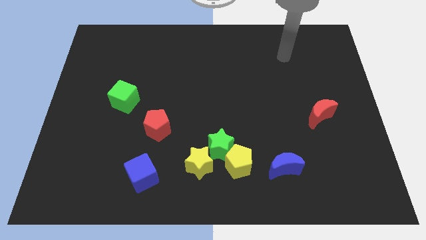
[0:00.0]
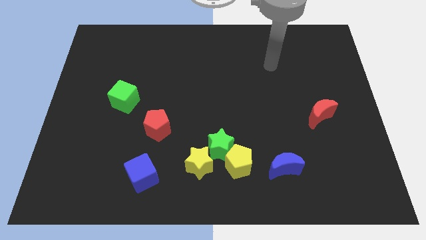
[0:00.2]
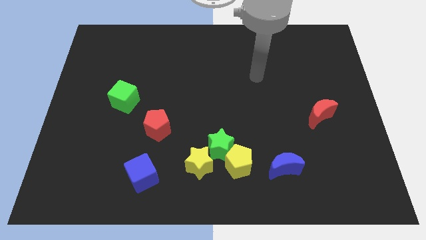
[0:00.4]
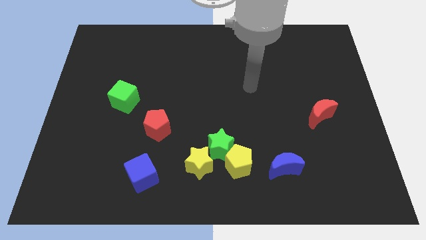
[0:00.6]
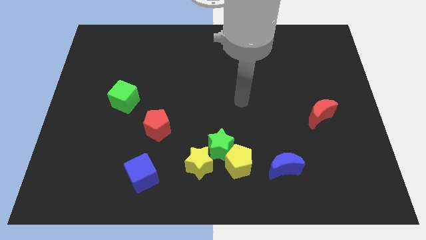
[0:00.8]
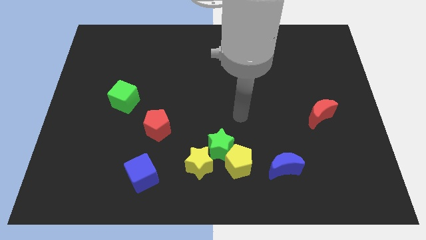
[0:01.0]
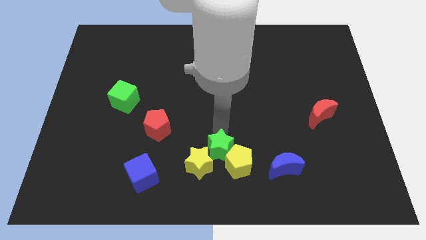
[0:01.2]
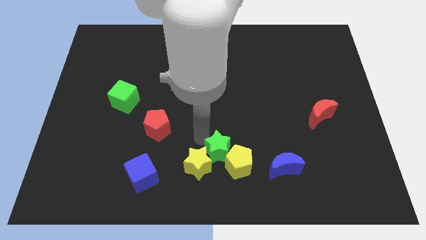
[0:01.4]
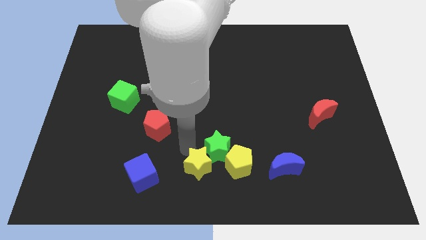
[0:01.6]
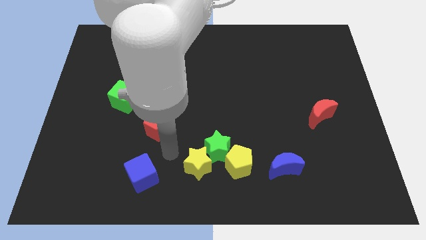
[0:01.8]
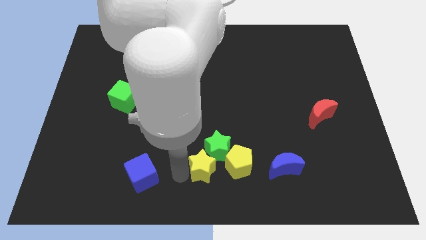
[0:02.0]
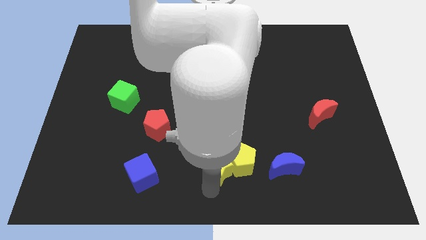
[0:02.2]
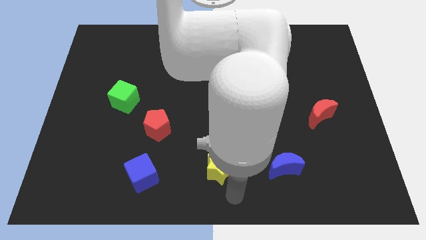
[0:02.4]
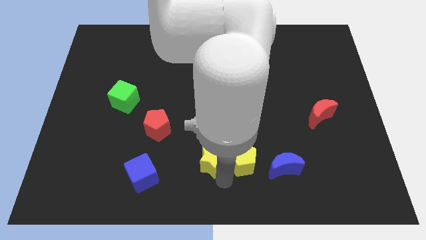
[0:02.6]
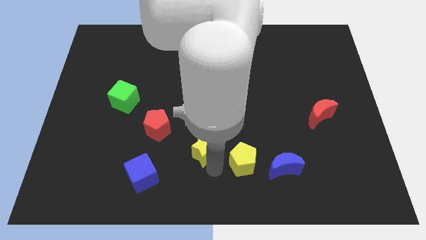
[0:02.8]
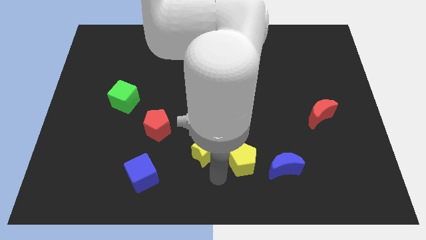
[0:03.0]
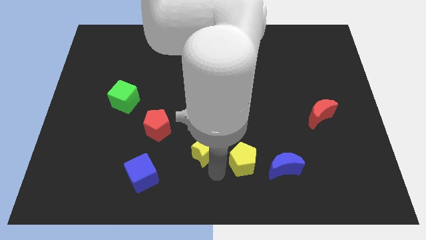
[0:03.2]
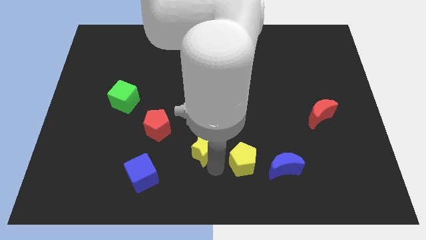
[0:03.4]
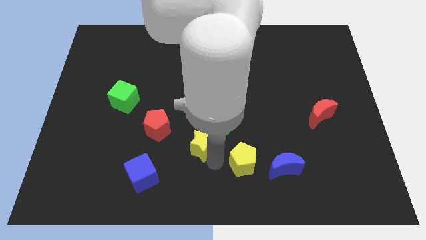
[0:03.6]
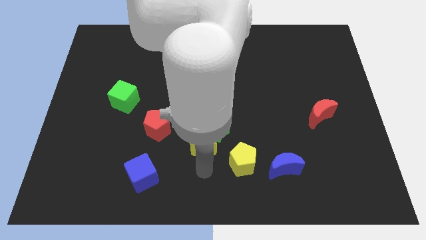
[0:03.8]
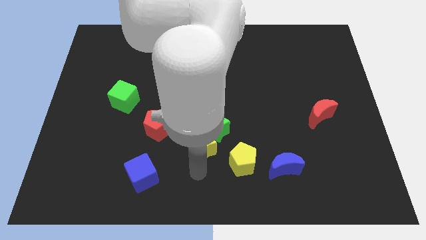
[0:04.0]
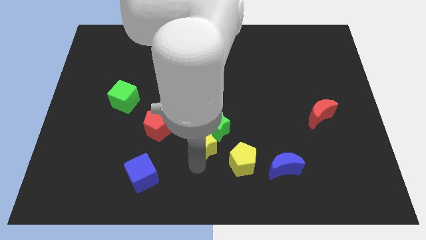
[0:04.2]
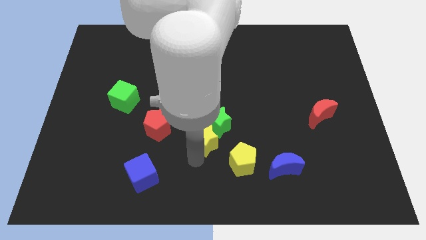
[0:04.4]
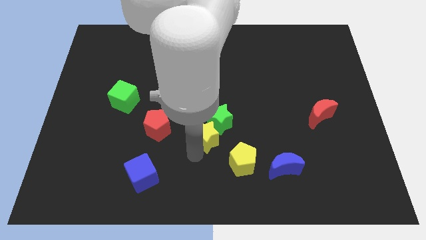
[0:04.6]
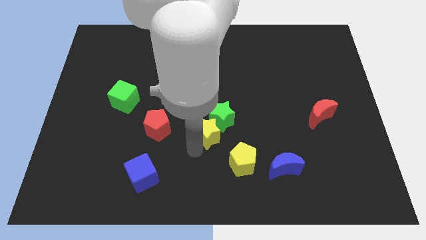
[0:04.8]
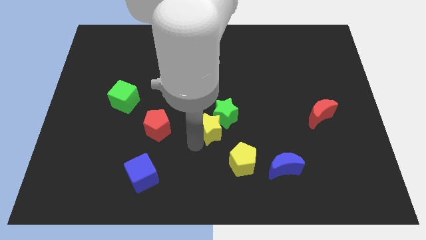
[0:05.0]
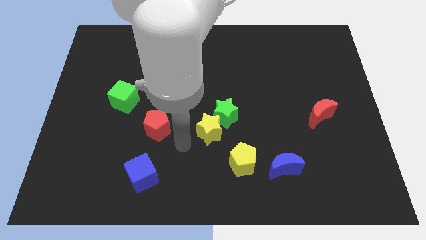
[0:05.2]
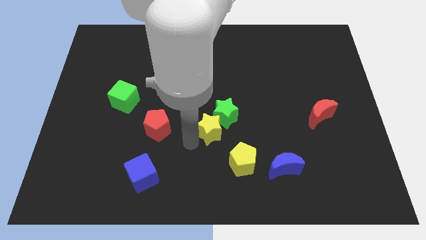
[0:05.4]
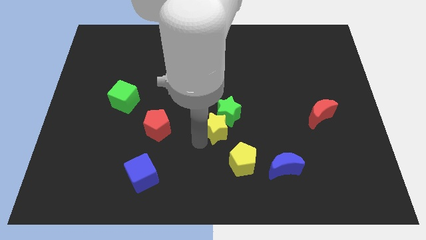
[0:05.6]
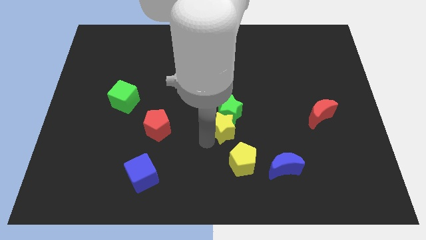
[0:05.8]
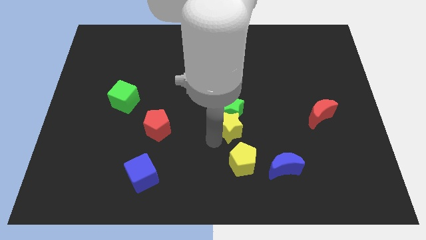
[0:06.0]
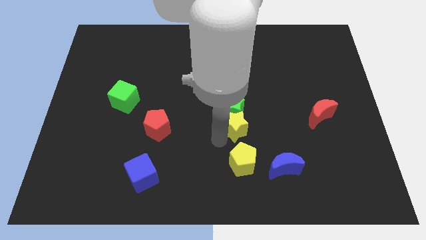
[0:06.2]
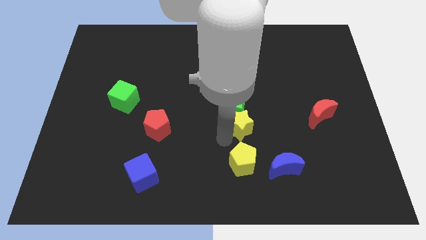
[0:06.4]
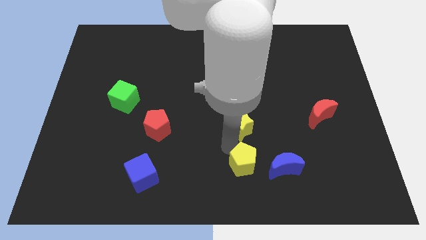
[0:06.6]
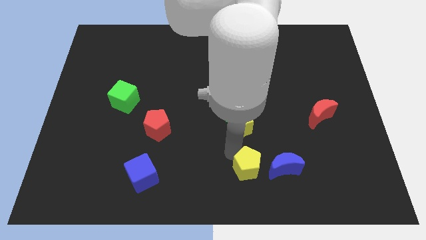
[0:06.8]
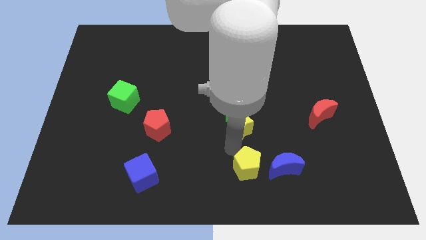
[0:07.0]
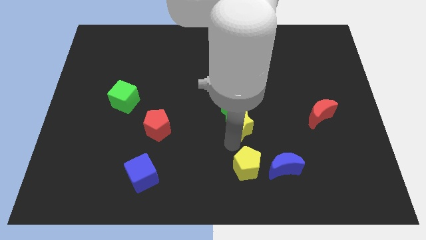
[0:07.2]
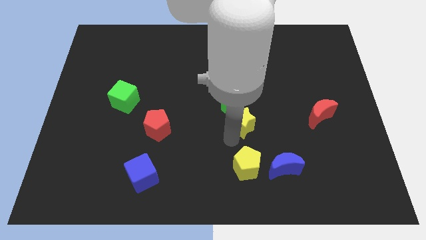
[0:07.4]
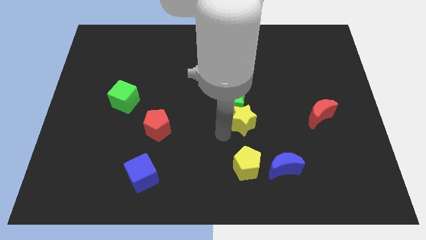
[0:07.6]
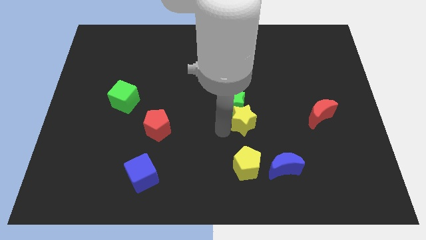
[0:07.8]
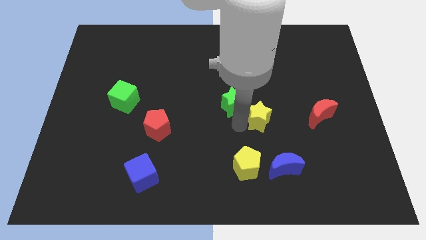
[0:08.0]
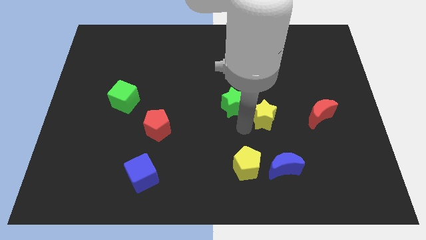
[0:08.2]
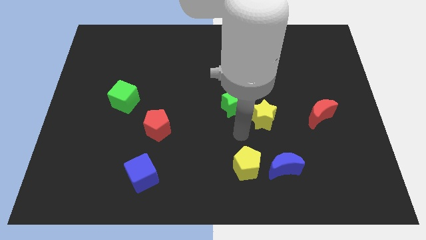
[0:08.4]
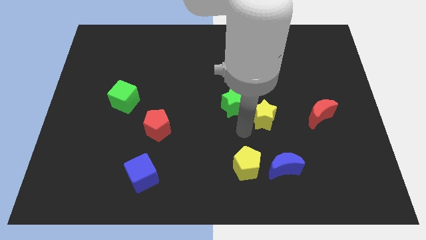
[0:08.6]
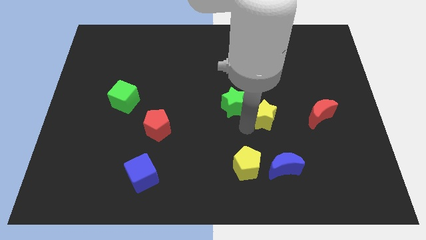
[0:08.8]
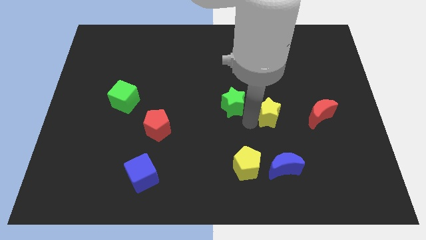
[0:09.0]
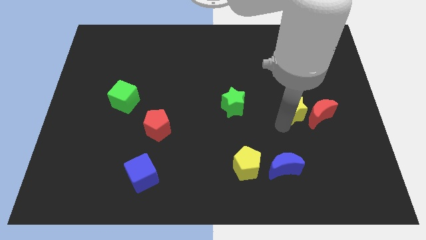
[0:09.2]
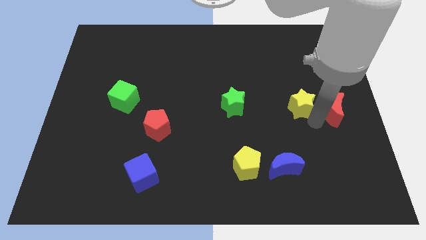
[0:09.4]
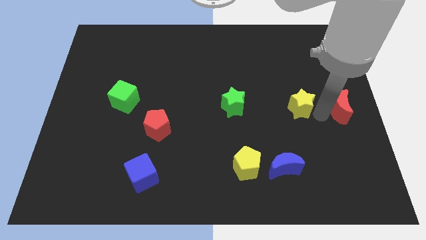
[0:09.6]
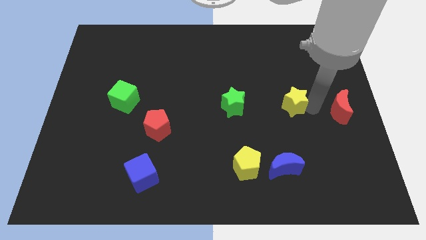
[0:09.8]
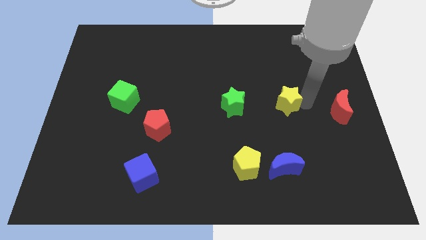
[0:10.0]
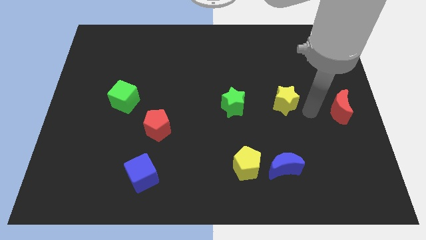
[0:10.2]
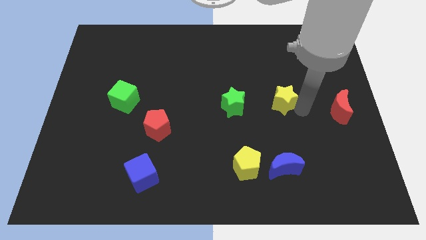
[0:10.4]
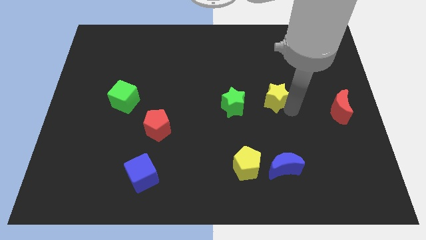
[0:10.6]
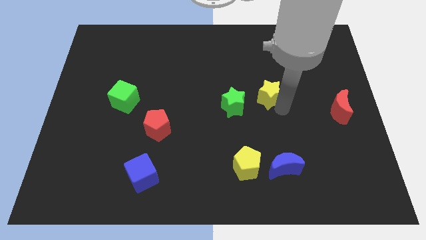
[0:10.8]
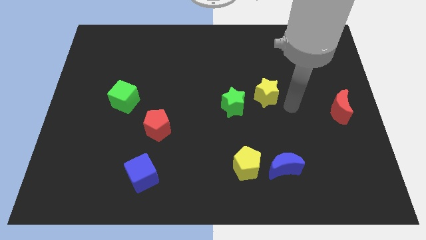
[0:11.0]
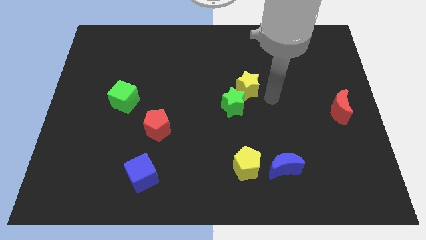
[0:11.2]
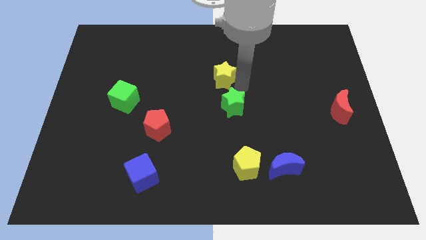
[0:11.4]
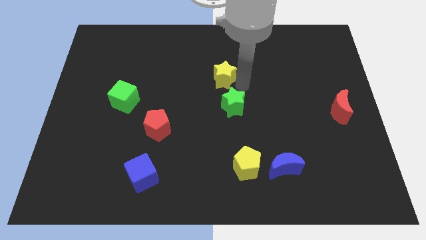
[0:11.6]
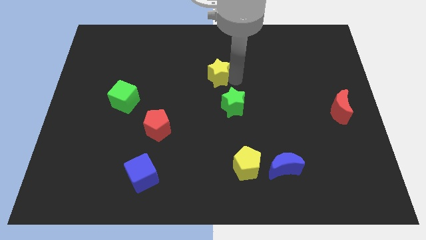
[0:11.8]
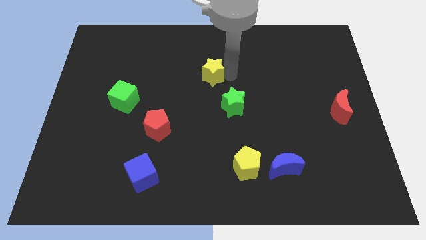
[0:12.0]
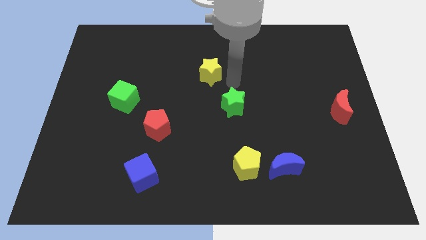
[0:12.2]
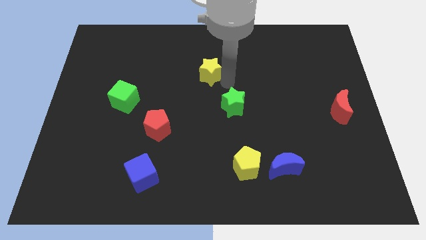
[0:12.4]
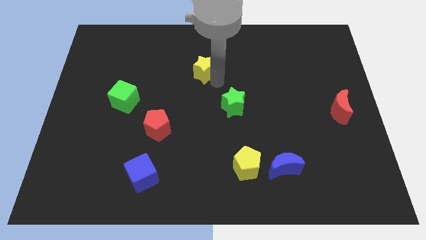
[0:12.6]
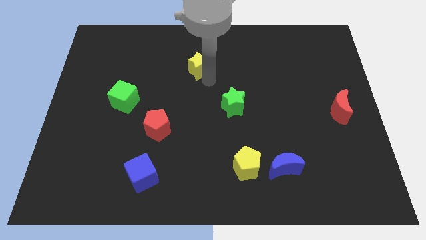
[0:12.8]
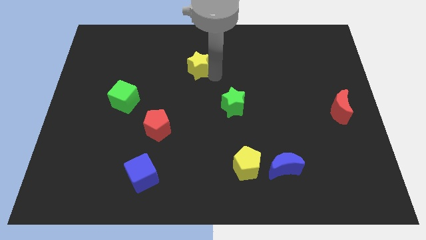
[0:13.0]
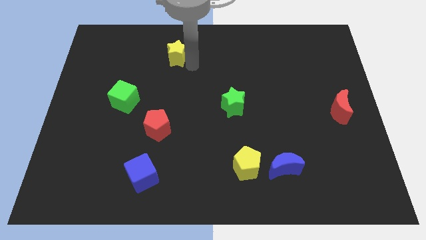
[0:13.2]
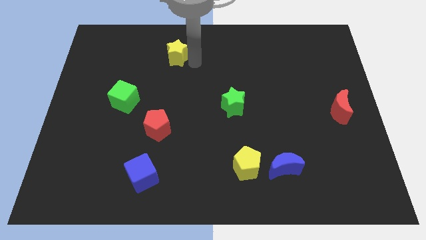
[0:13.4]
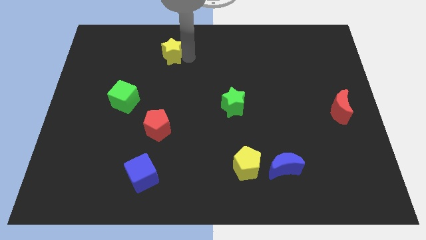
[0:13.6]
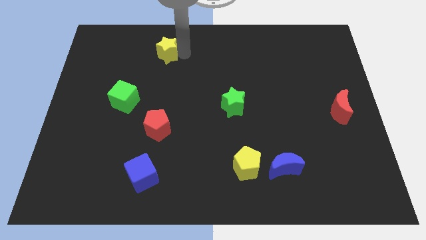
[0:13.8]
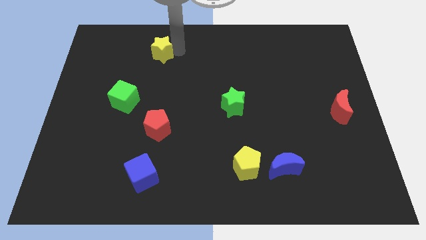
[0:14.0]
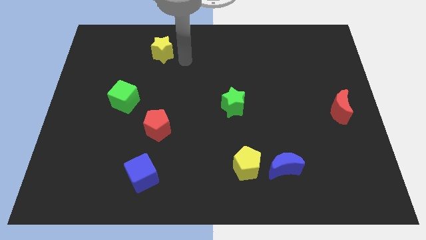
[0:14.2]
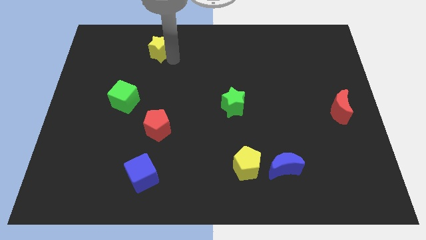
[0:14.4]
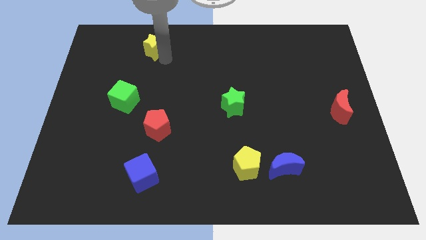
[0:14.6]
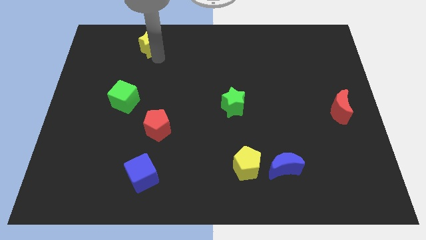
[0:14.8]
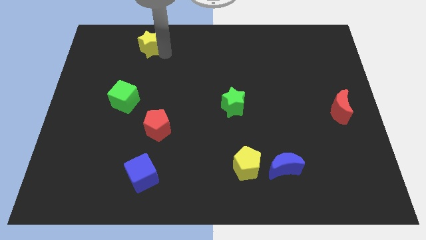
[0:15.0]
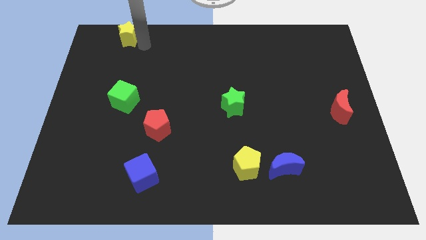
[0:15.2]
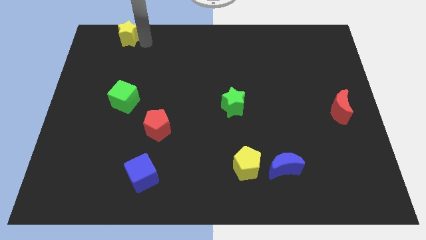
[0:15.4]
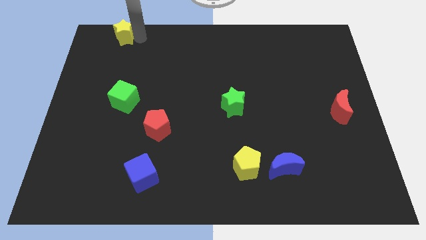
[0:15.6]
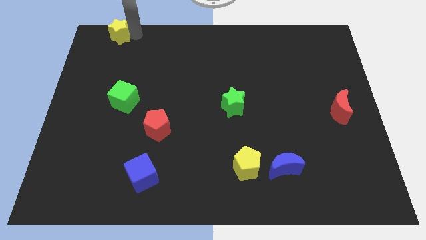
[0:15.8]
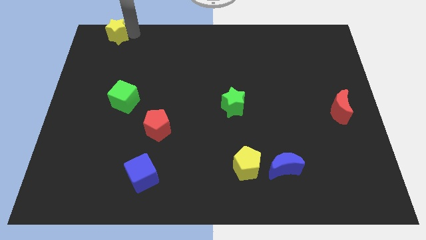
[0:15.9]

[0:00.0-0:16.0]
push the yellow star to the upper left corner
